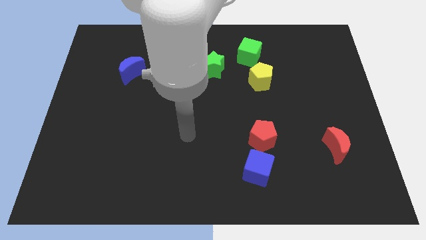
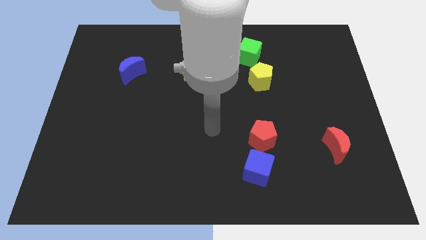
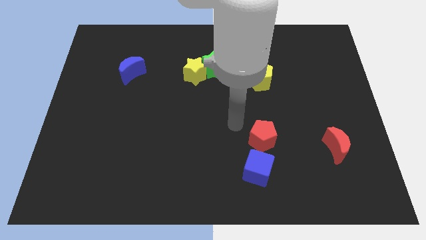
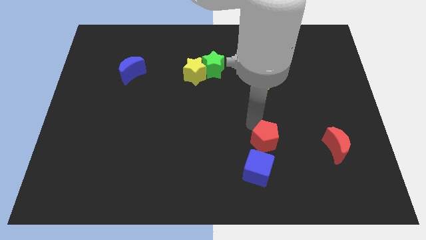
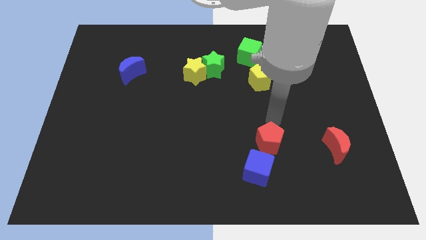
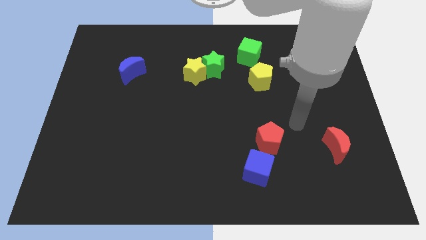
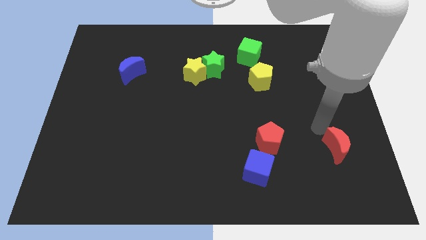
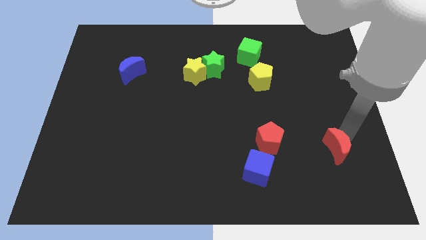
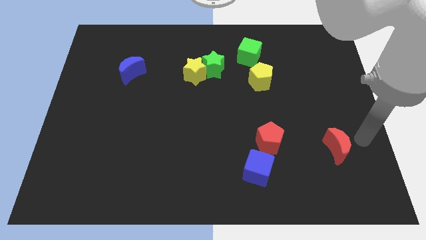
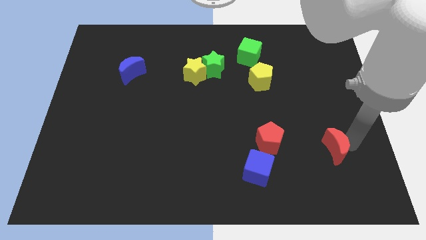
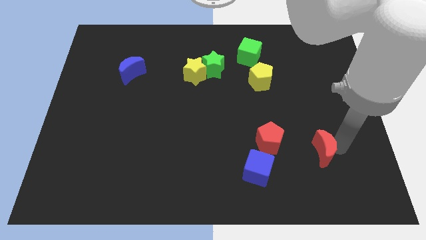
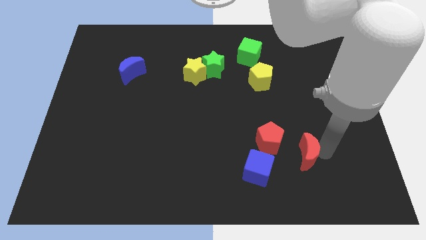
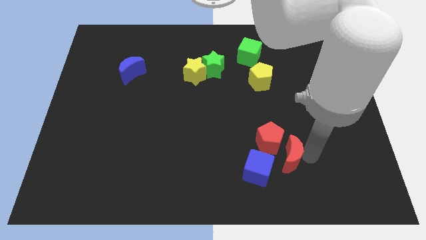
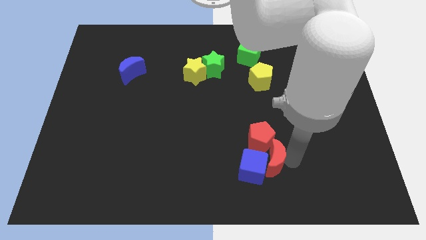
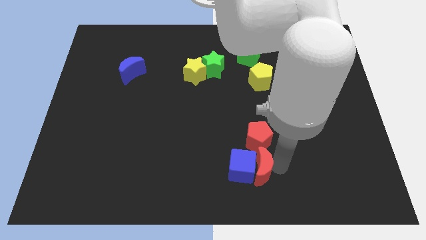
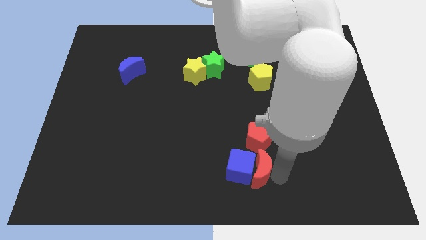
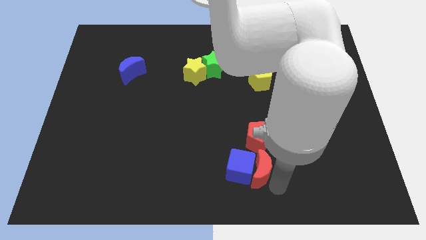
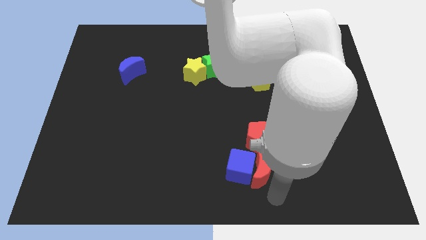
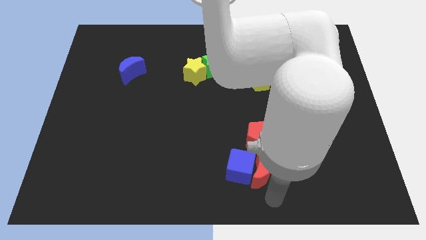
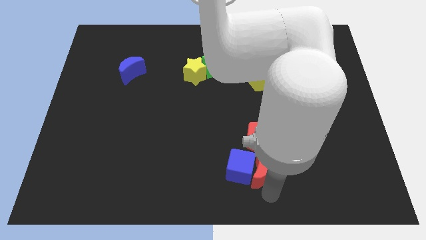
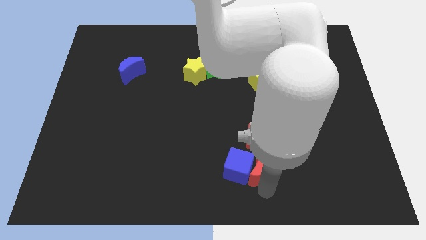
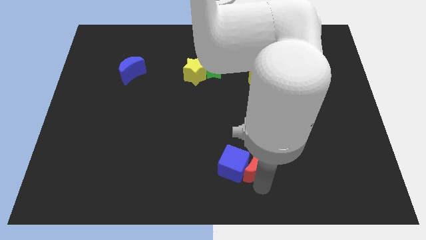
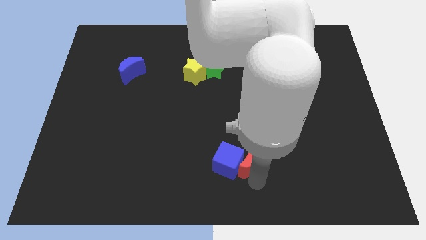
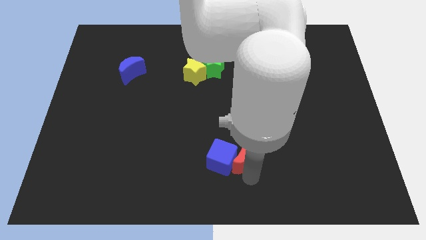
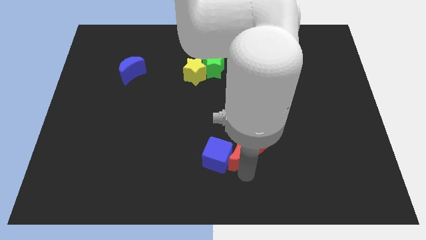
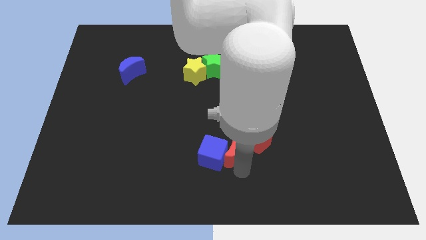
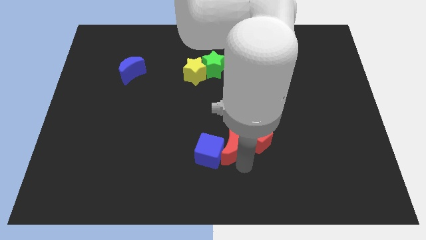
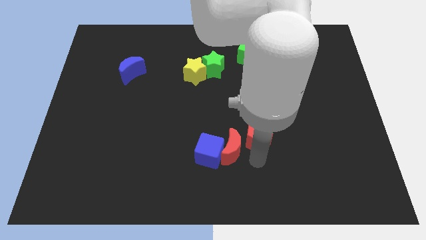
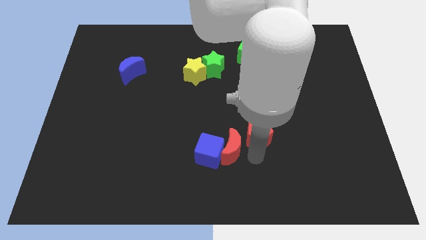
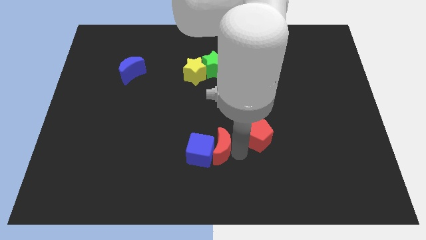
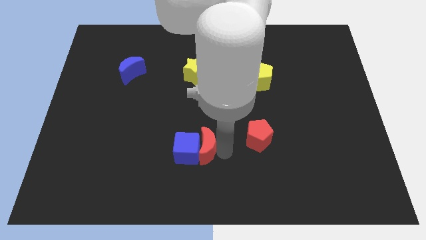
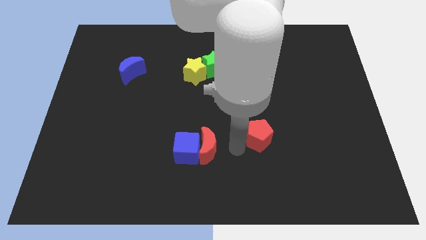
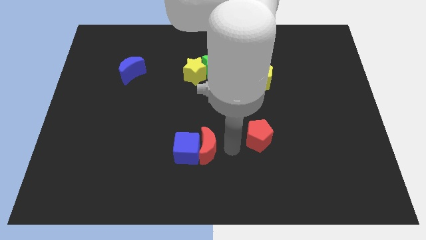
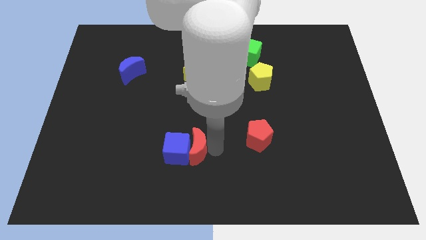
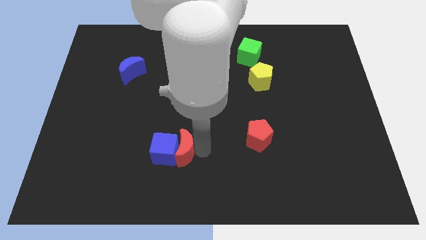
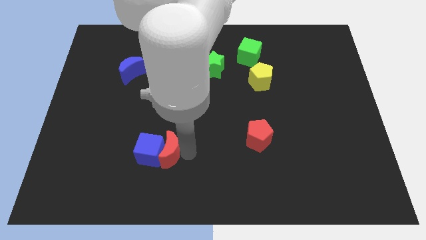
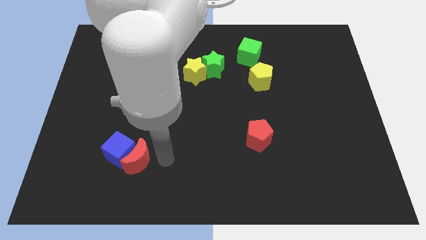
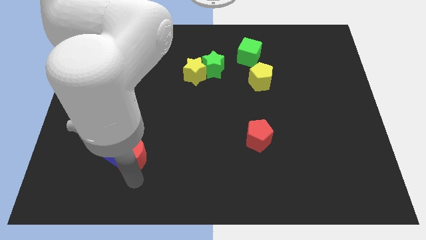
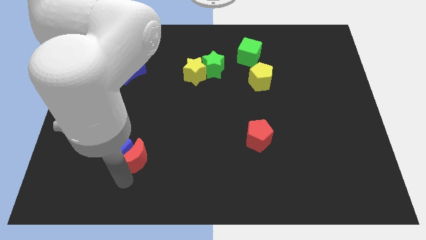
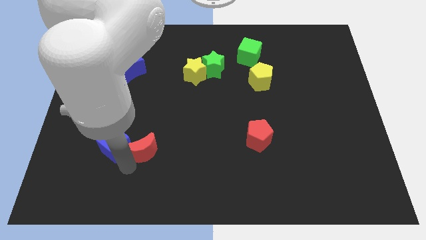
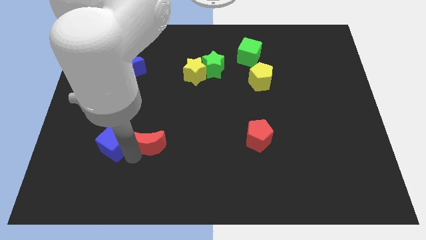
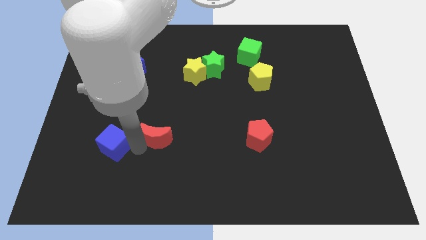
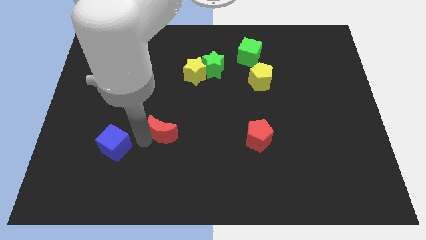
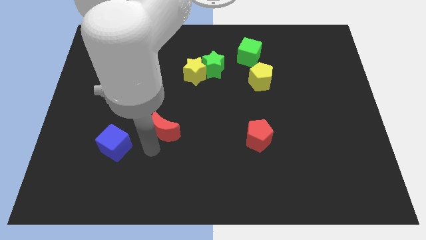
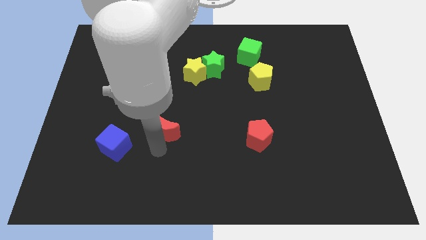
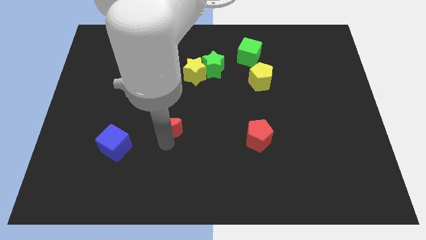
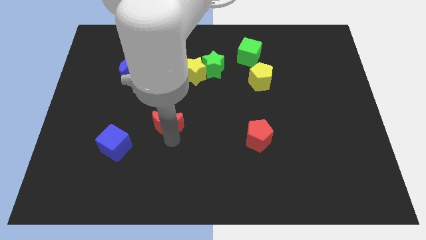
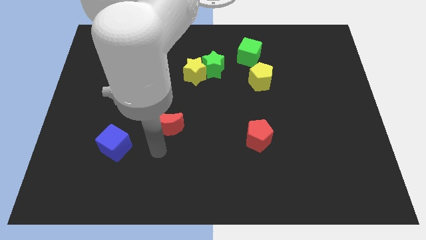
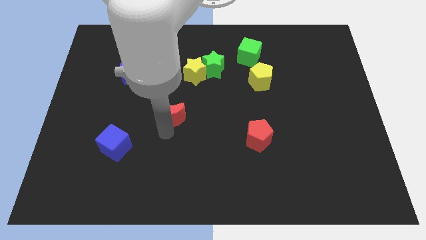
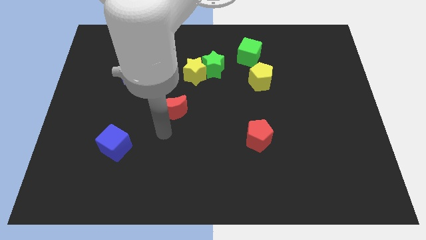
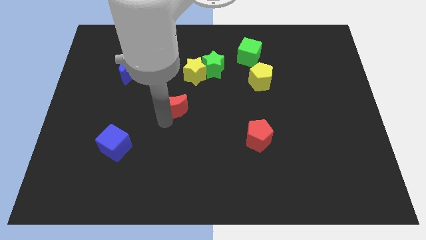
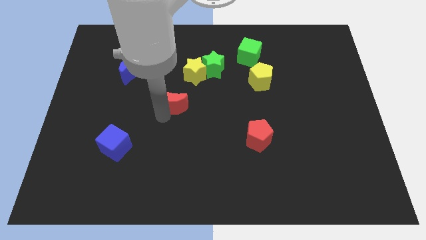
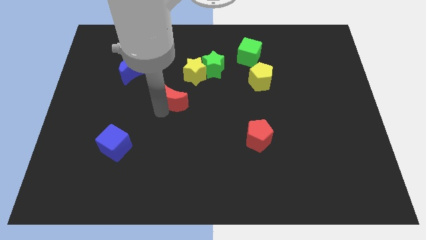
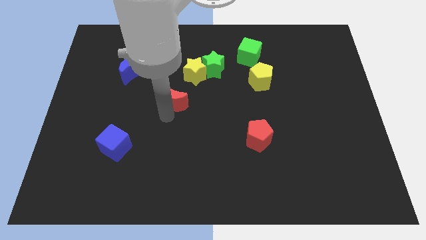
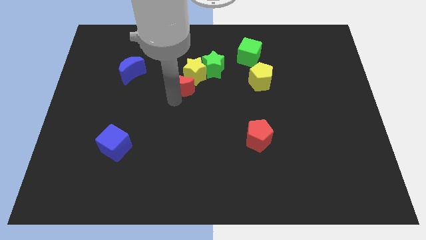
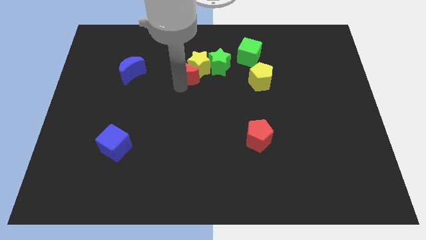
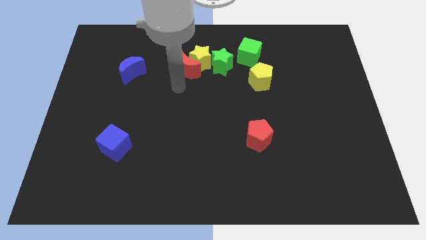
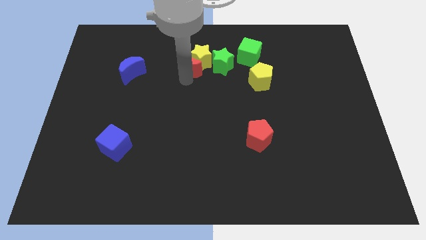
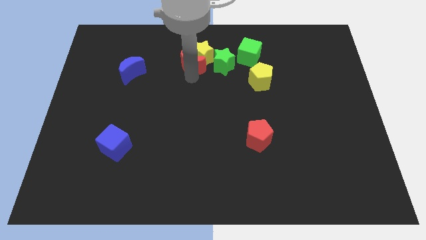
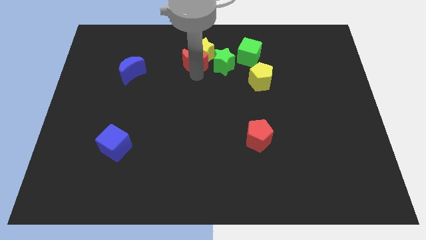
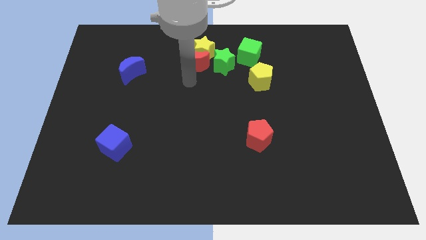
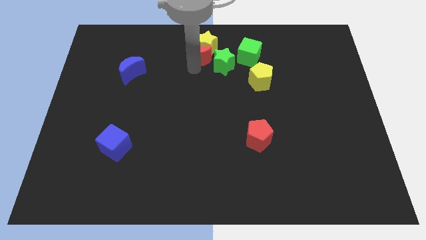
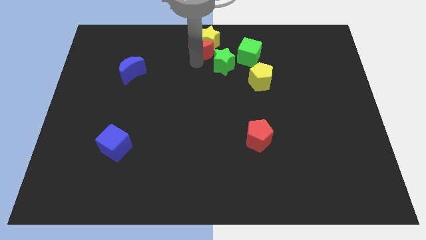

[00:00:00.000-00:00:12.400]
move the red moon to the top

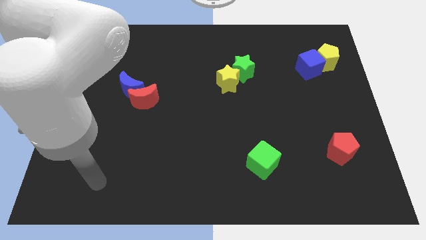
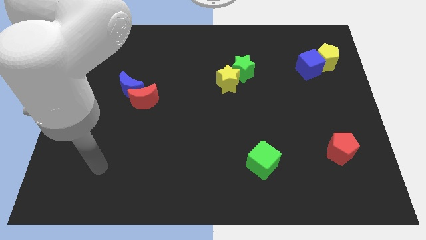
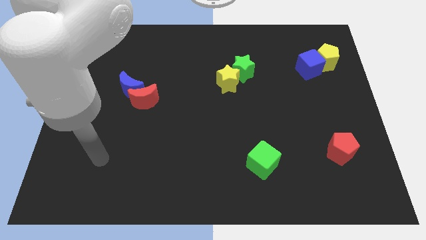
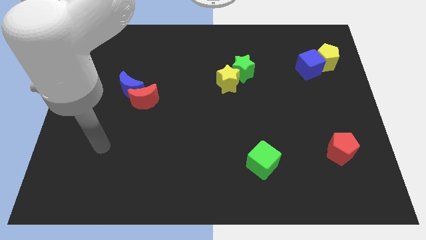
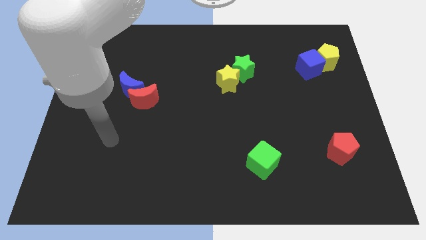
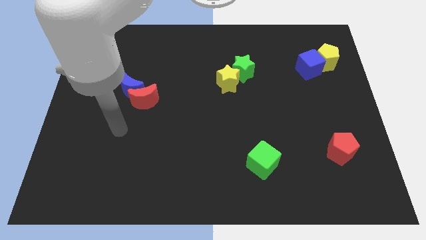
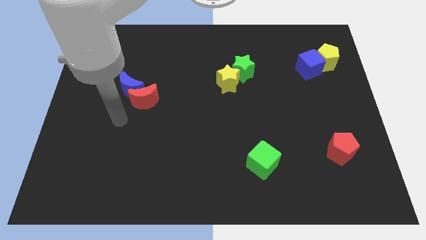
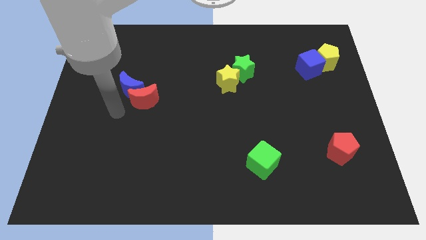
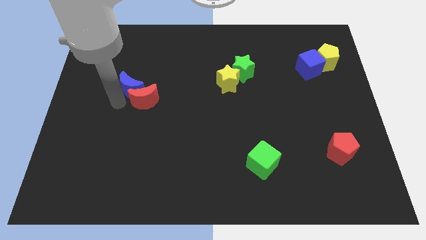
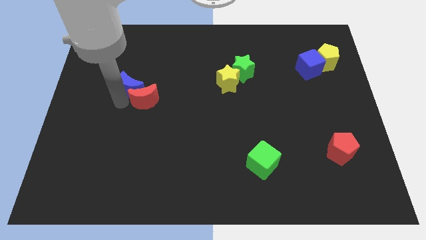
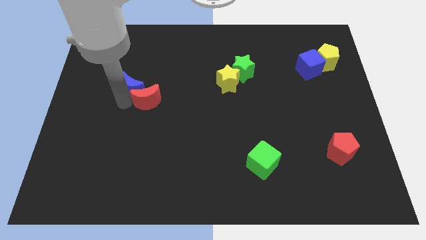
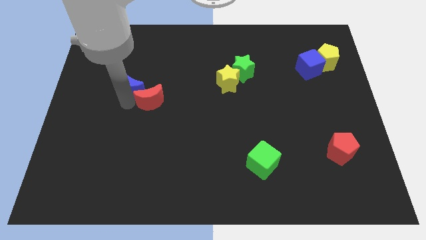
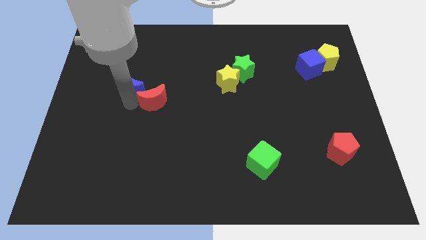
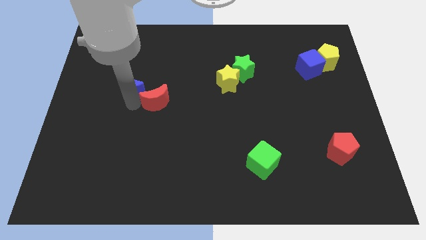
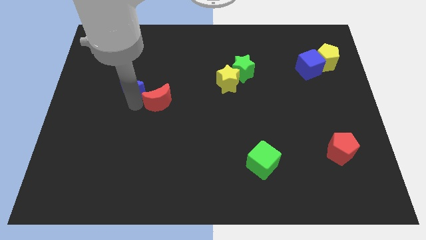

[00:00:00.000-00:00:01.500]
put the red moon to the center of the board
